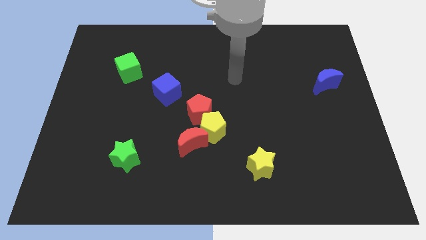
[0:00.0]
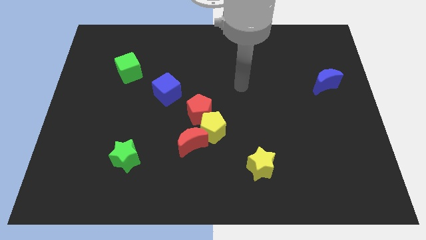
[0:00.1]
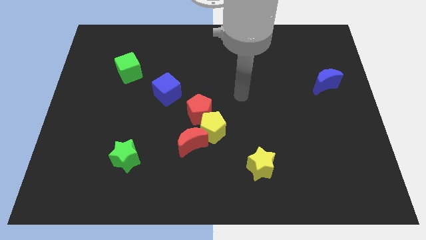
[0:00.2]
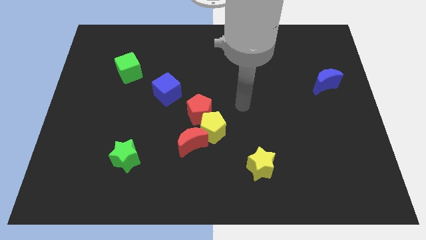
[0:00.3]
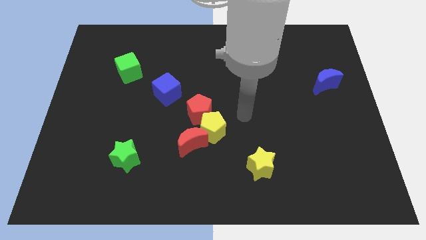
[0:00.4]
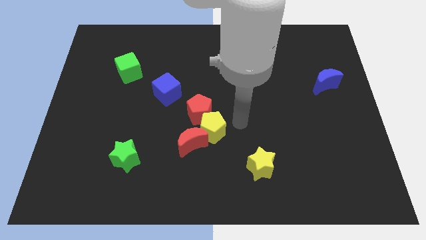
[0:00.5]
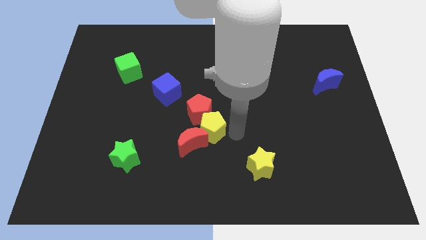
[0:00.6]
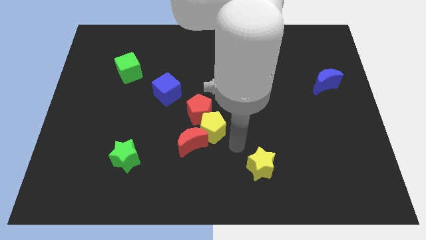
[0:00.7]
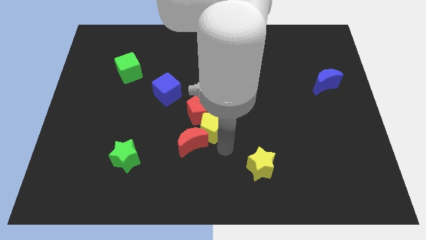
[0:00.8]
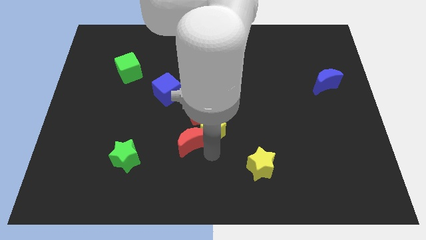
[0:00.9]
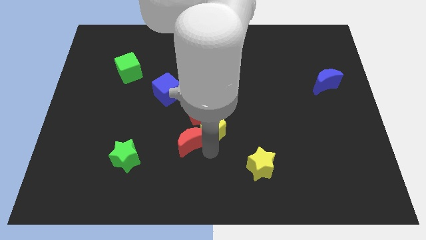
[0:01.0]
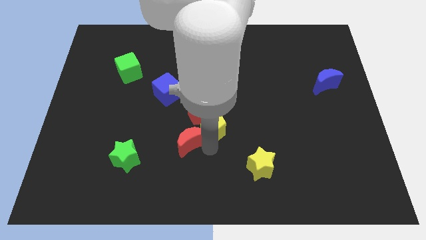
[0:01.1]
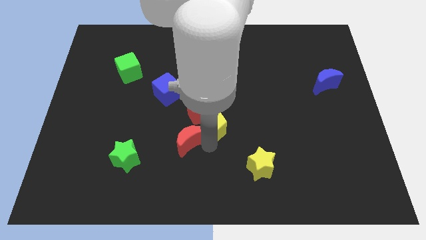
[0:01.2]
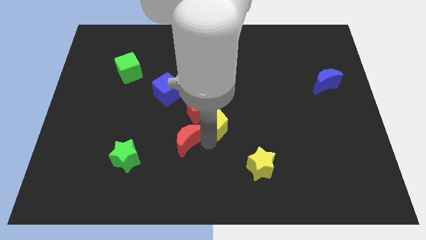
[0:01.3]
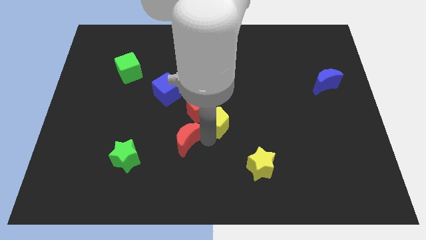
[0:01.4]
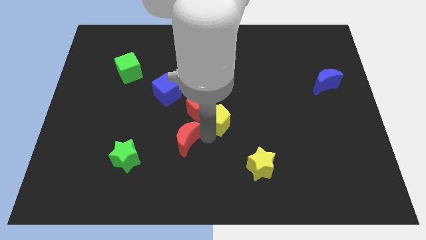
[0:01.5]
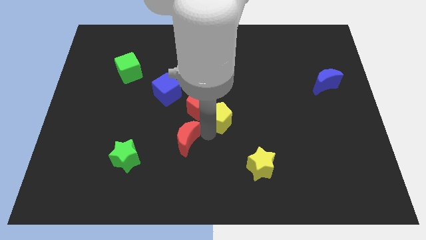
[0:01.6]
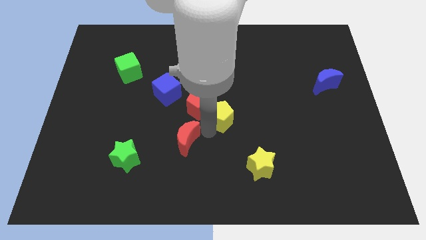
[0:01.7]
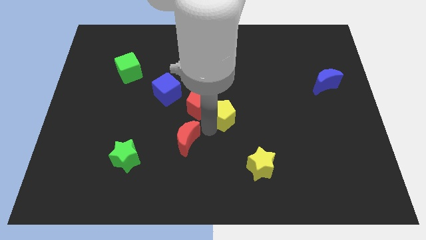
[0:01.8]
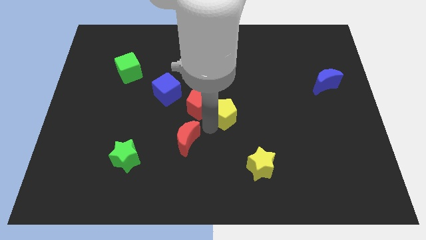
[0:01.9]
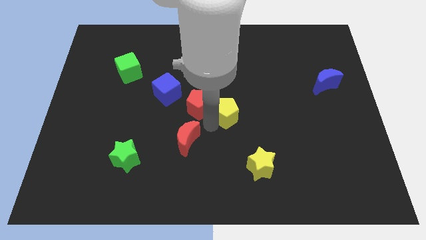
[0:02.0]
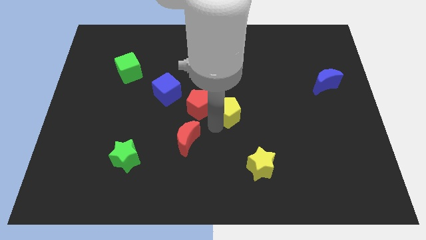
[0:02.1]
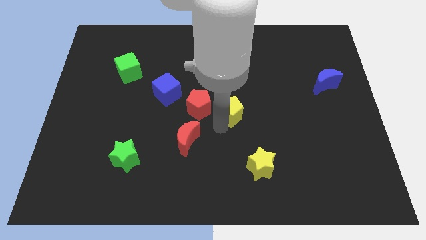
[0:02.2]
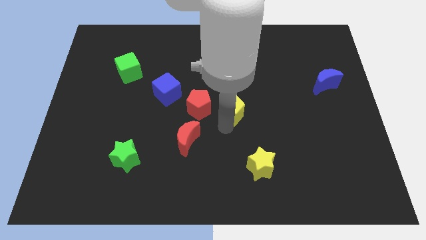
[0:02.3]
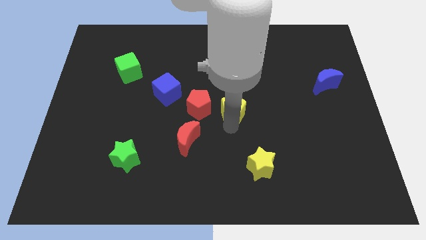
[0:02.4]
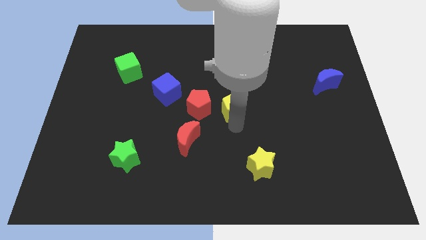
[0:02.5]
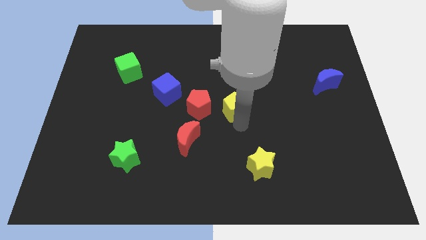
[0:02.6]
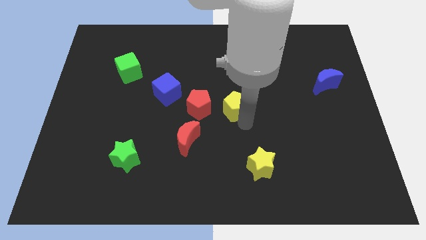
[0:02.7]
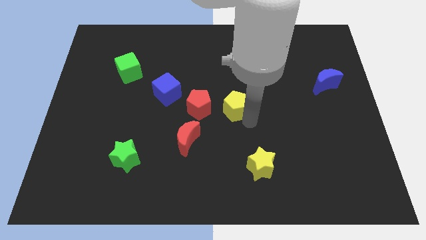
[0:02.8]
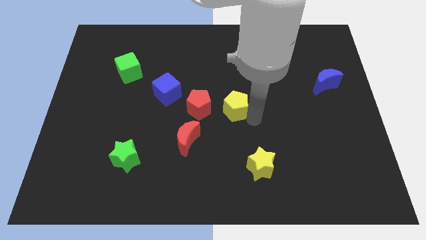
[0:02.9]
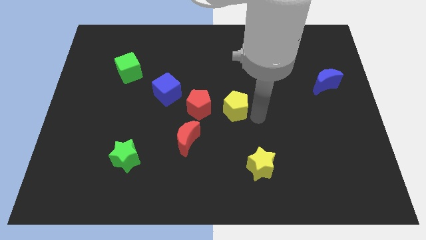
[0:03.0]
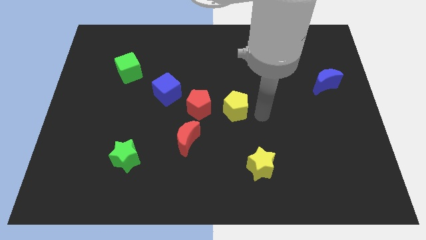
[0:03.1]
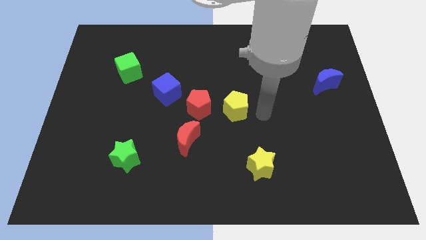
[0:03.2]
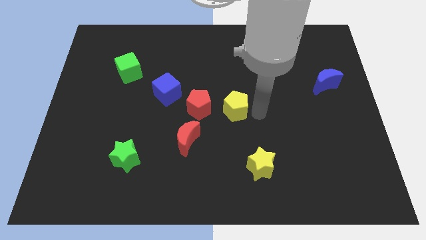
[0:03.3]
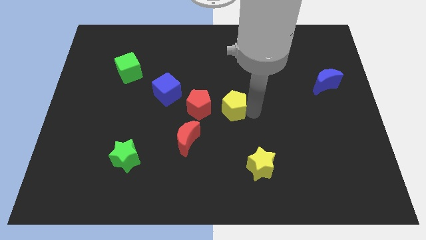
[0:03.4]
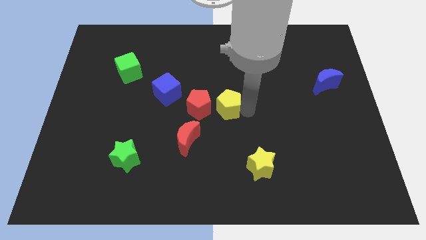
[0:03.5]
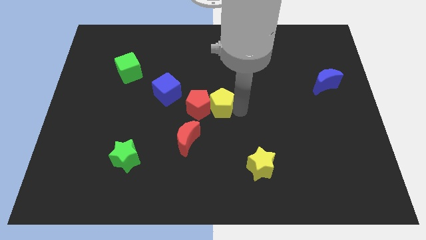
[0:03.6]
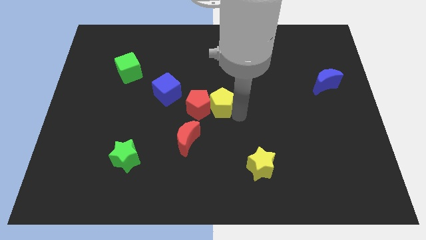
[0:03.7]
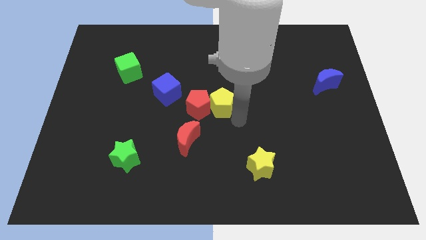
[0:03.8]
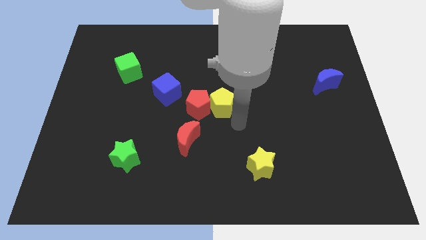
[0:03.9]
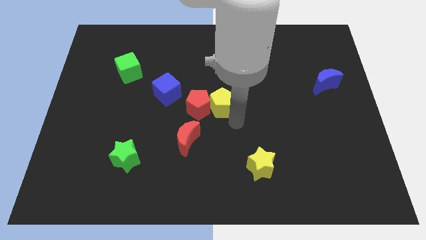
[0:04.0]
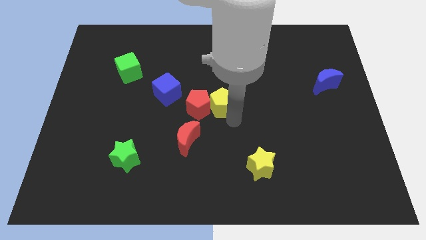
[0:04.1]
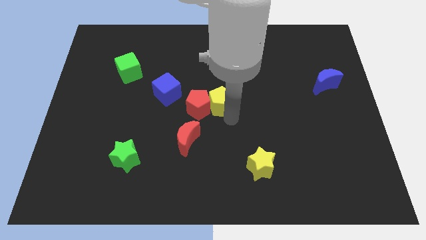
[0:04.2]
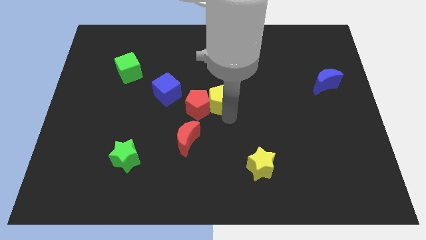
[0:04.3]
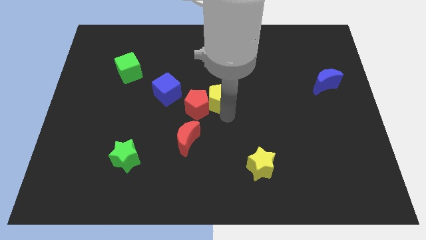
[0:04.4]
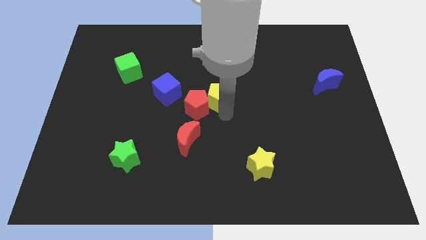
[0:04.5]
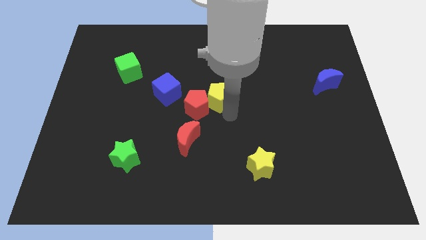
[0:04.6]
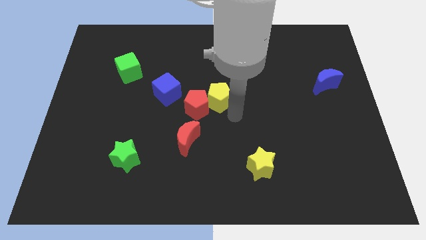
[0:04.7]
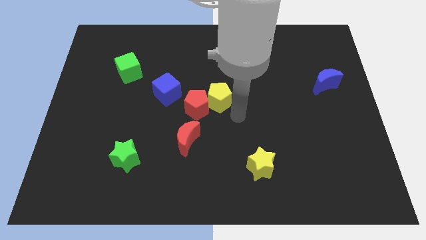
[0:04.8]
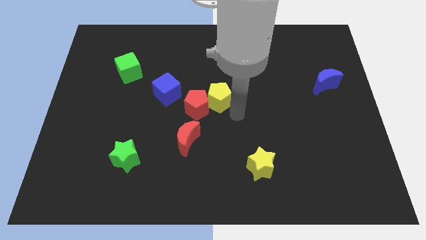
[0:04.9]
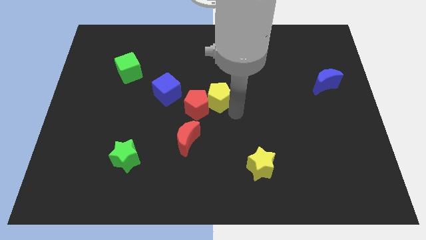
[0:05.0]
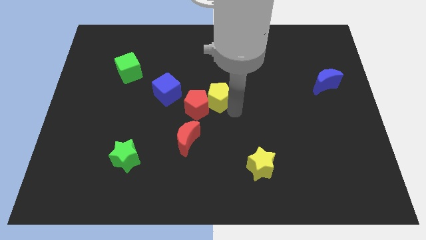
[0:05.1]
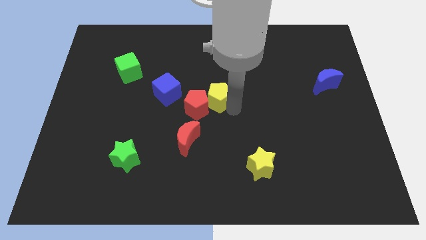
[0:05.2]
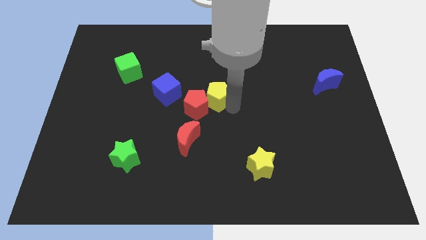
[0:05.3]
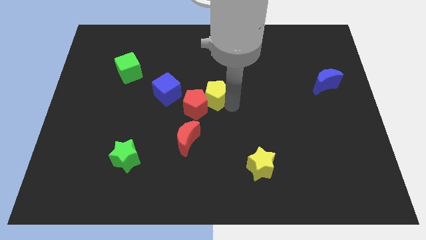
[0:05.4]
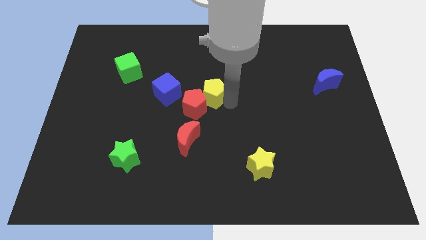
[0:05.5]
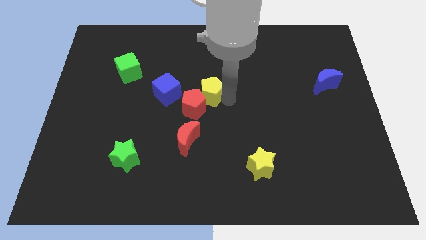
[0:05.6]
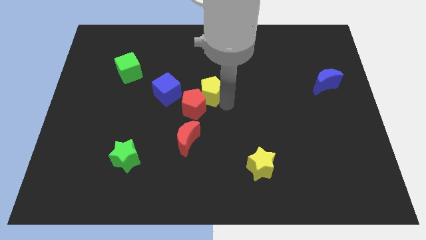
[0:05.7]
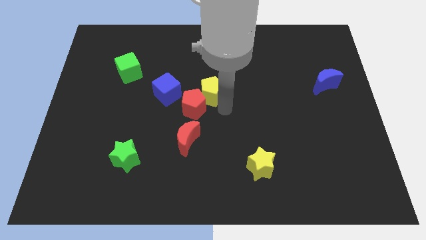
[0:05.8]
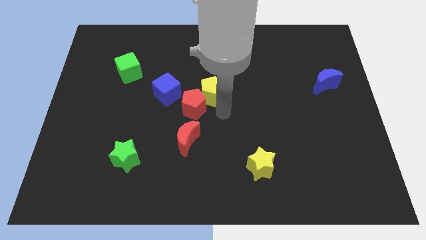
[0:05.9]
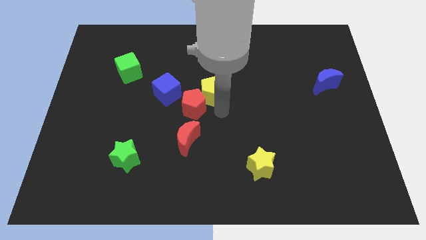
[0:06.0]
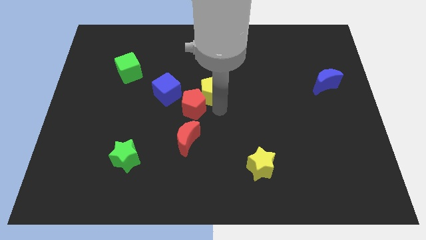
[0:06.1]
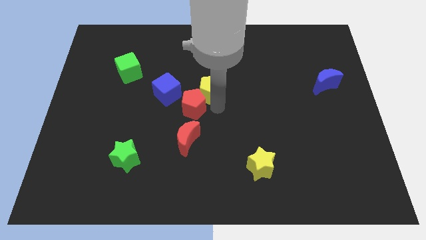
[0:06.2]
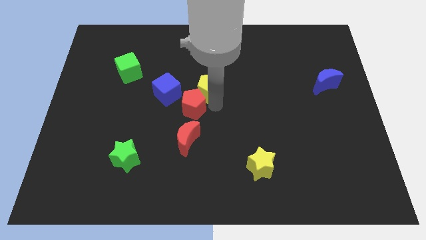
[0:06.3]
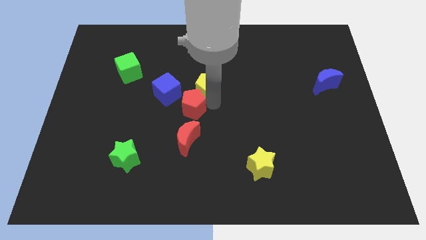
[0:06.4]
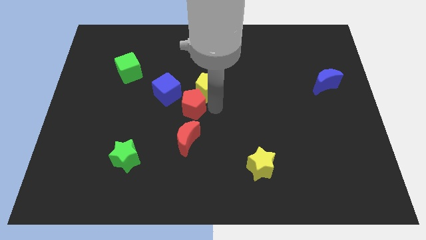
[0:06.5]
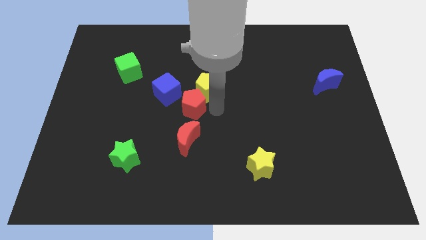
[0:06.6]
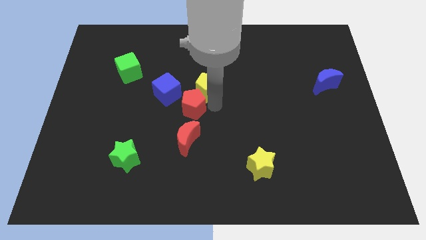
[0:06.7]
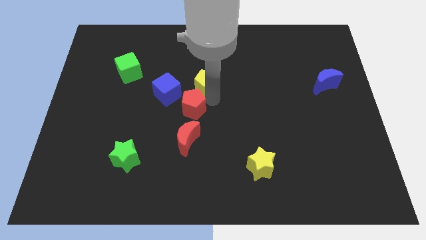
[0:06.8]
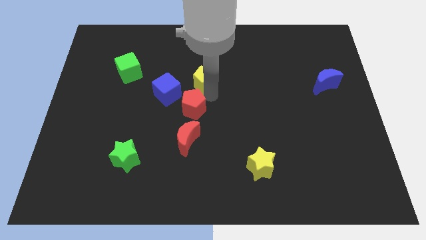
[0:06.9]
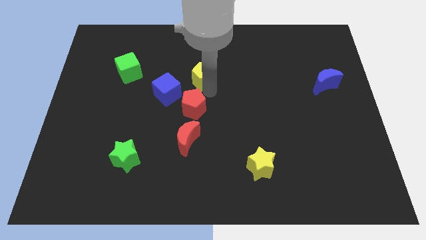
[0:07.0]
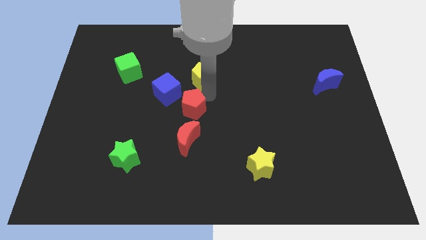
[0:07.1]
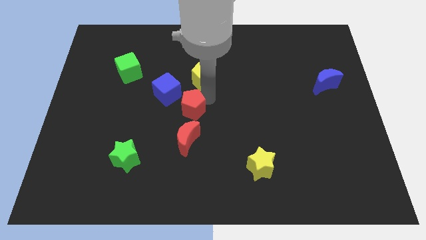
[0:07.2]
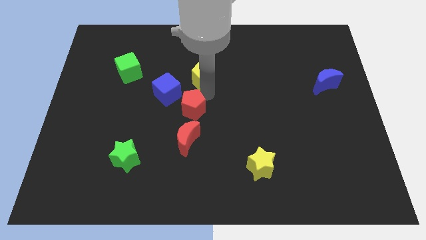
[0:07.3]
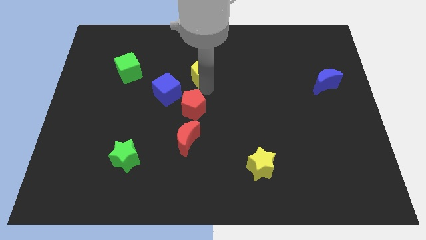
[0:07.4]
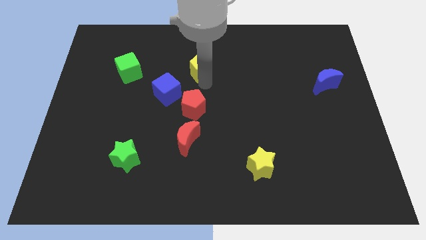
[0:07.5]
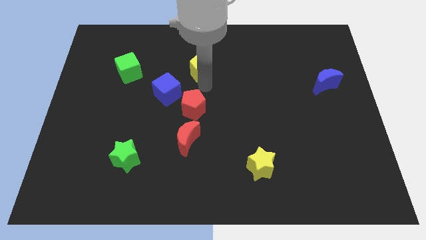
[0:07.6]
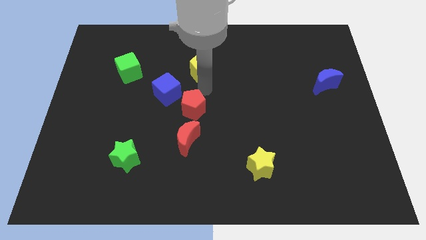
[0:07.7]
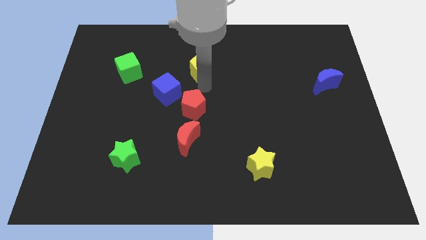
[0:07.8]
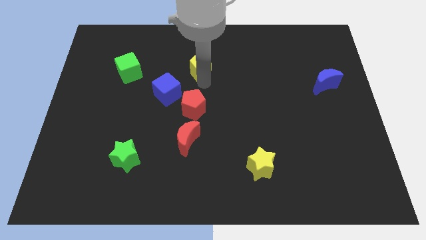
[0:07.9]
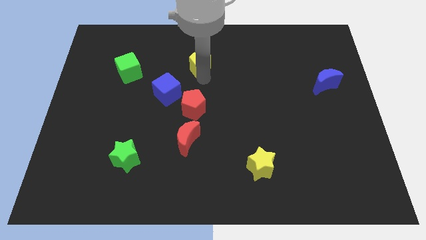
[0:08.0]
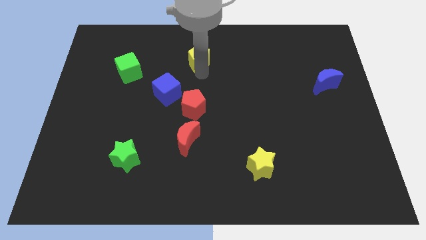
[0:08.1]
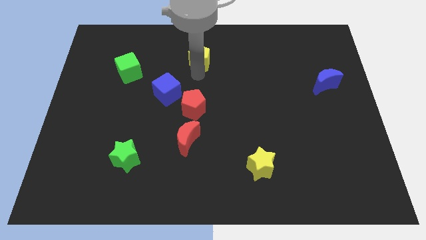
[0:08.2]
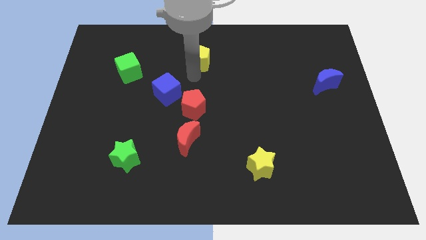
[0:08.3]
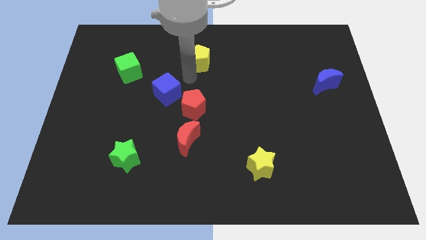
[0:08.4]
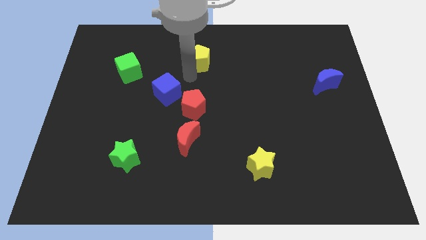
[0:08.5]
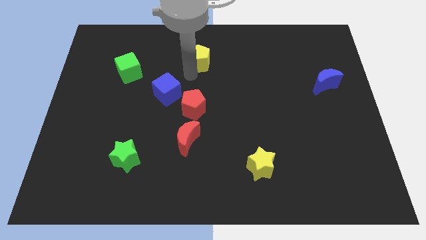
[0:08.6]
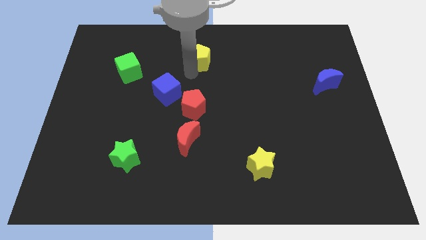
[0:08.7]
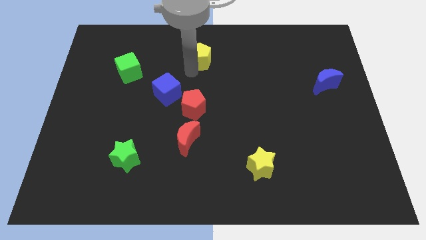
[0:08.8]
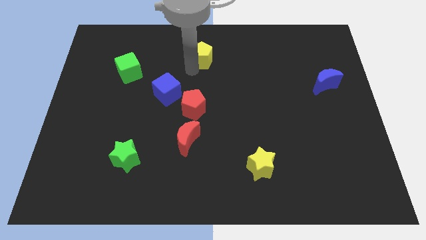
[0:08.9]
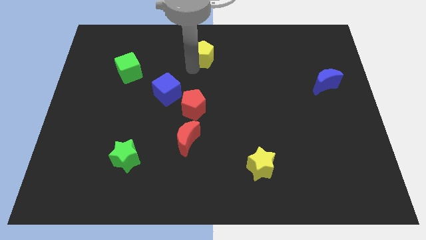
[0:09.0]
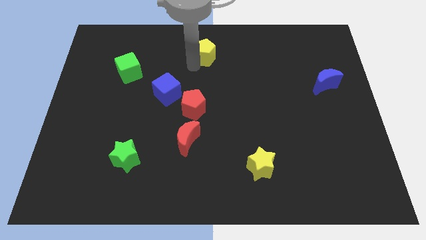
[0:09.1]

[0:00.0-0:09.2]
put the yellow pentagon to the towards your base
